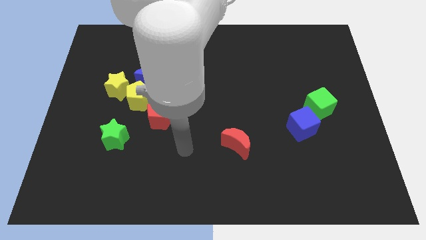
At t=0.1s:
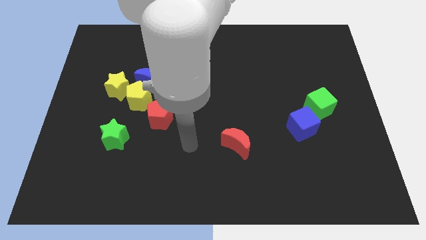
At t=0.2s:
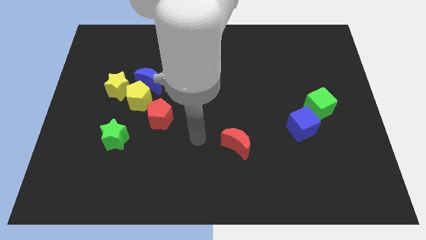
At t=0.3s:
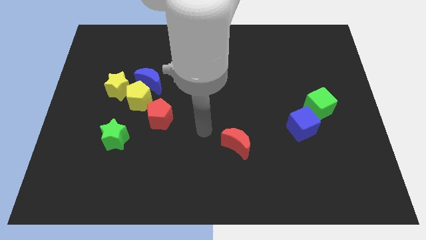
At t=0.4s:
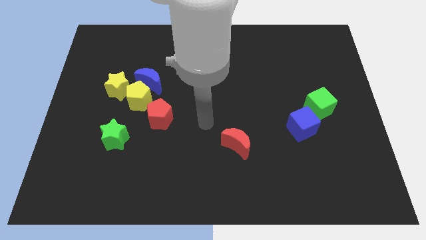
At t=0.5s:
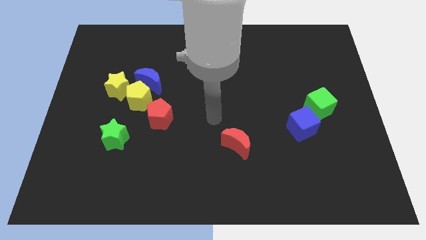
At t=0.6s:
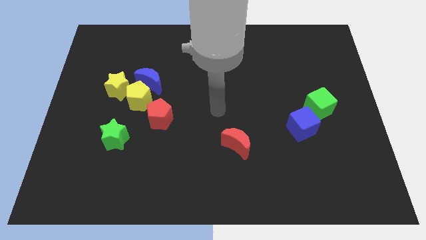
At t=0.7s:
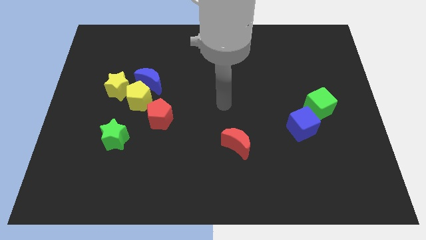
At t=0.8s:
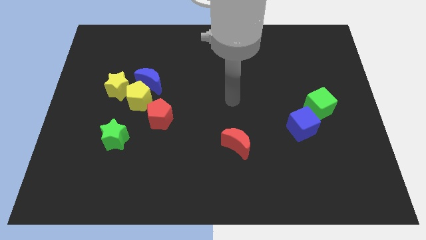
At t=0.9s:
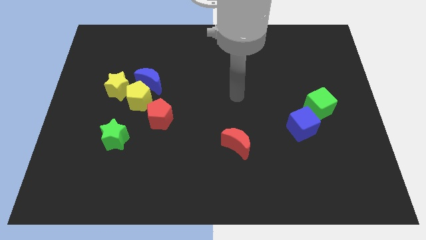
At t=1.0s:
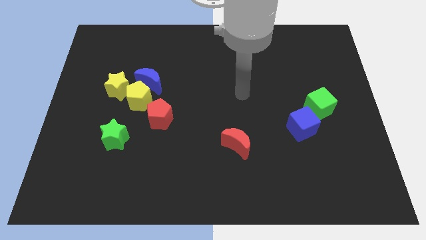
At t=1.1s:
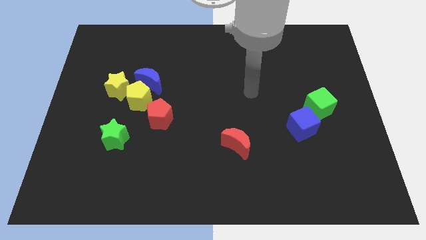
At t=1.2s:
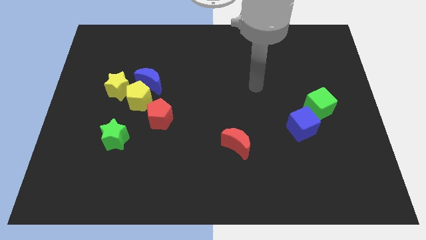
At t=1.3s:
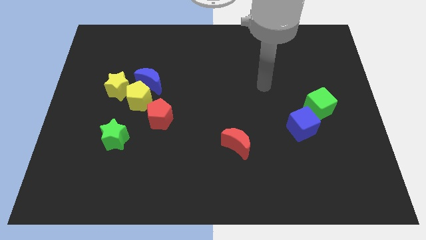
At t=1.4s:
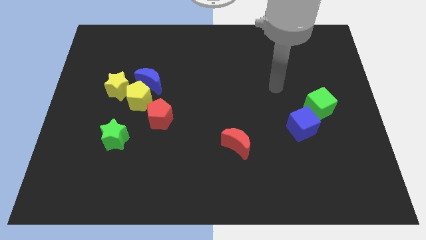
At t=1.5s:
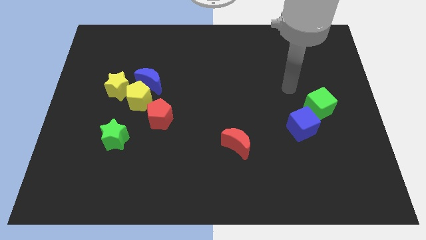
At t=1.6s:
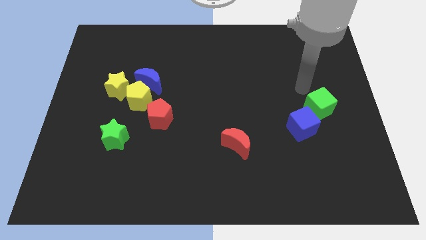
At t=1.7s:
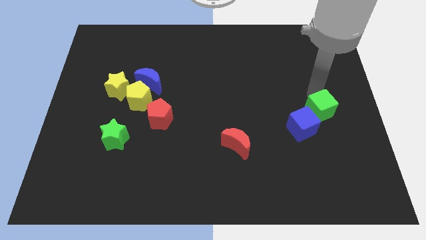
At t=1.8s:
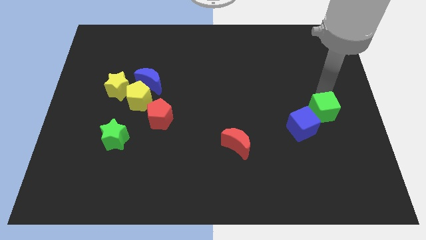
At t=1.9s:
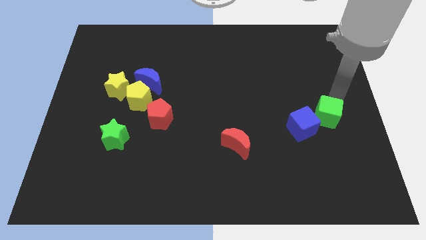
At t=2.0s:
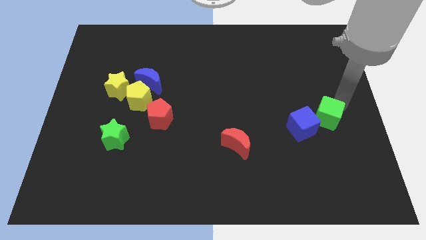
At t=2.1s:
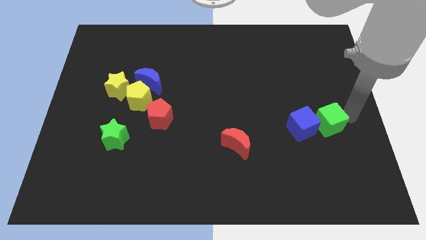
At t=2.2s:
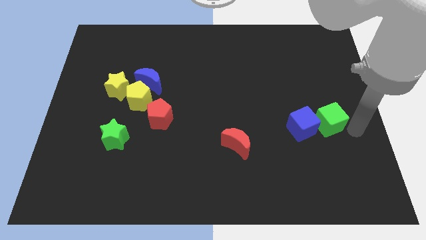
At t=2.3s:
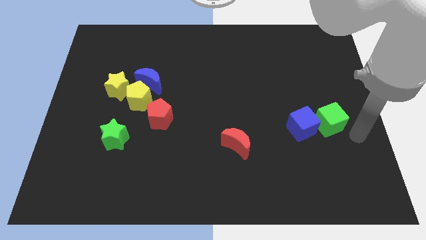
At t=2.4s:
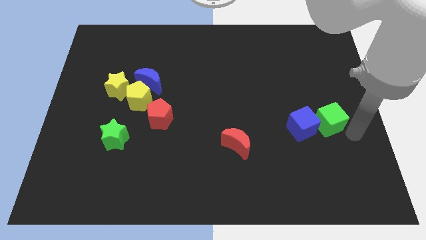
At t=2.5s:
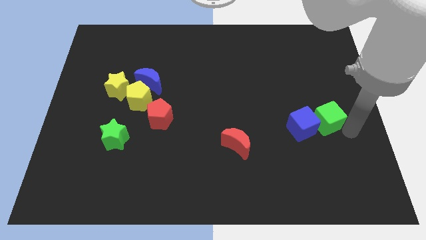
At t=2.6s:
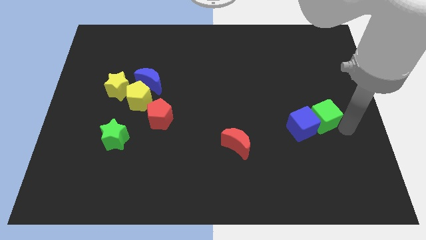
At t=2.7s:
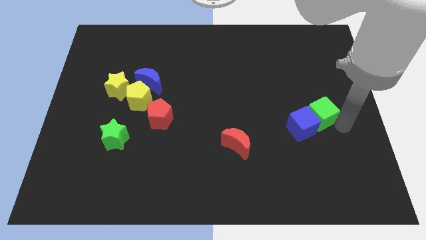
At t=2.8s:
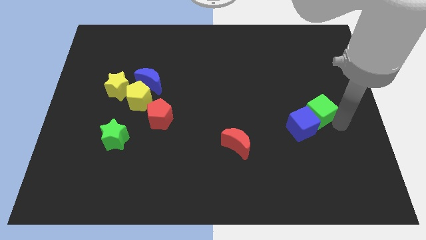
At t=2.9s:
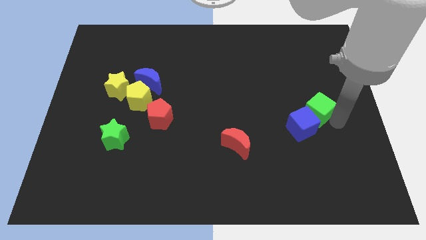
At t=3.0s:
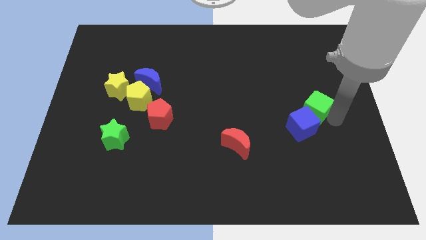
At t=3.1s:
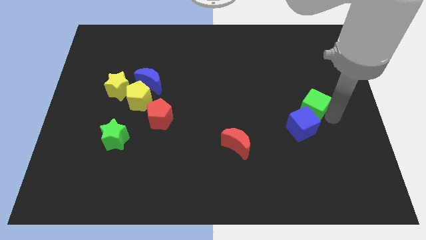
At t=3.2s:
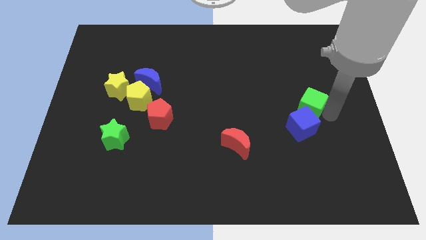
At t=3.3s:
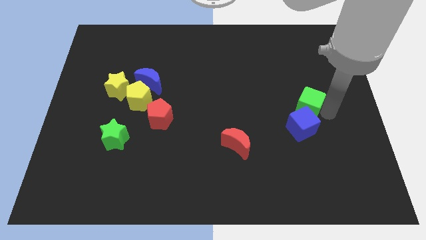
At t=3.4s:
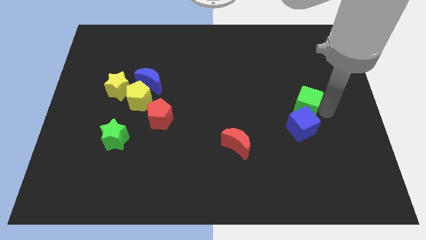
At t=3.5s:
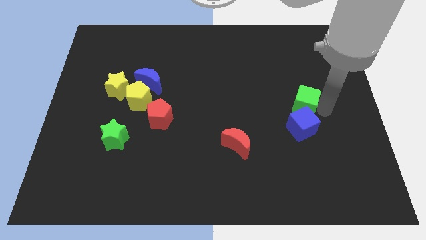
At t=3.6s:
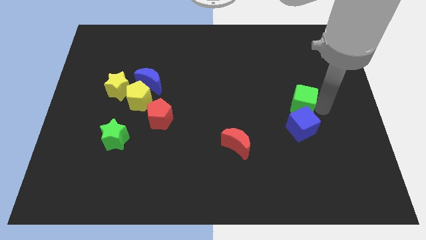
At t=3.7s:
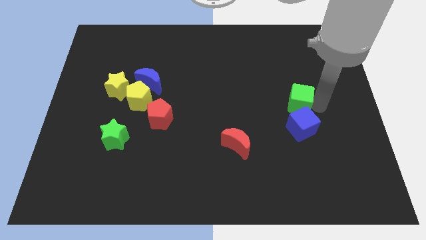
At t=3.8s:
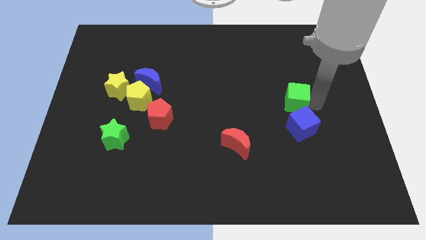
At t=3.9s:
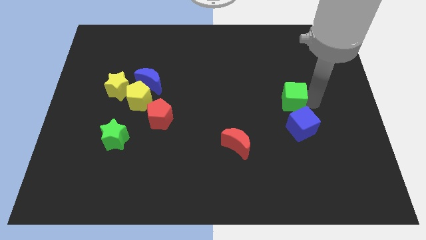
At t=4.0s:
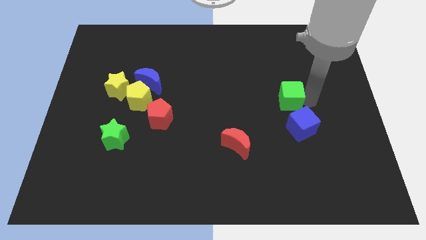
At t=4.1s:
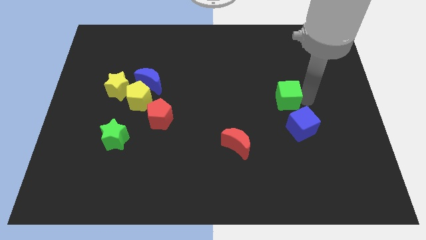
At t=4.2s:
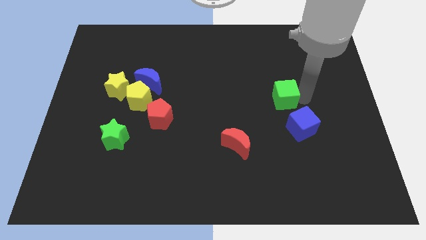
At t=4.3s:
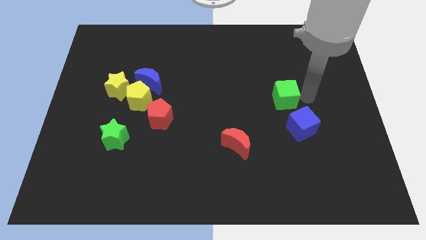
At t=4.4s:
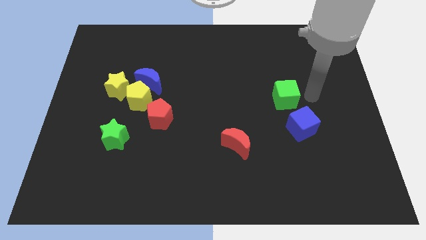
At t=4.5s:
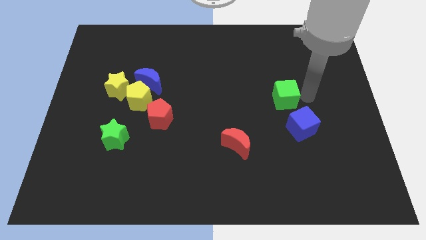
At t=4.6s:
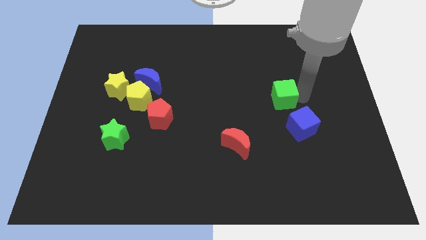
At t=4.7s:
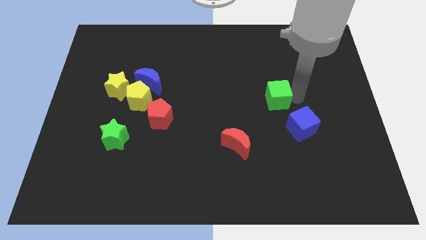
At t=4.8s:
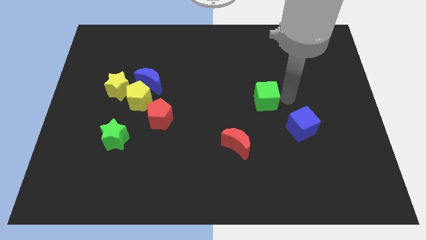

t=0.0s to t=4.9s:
move the green cube to the middle
